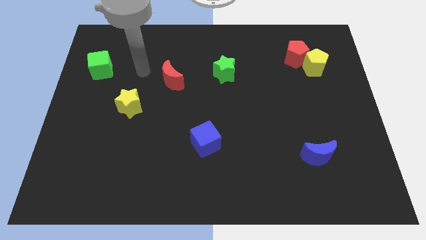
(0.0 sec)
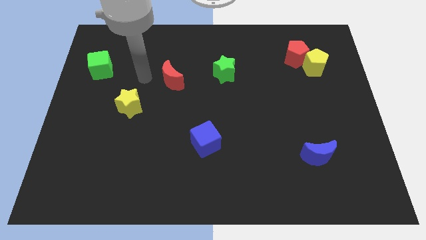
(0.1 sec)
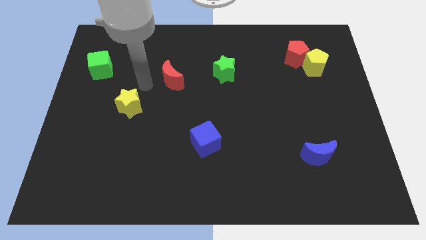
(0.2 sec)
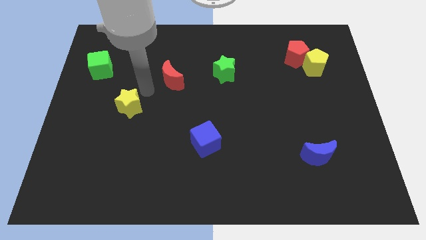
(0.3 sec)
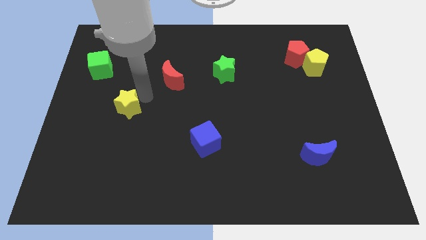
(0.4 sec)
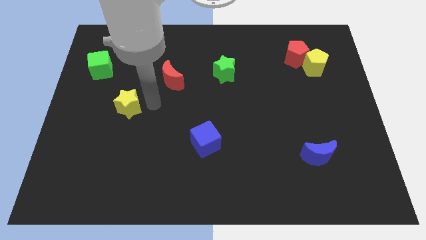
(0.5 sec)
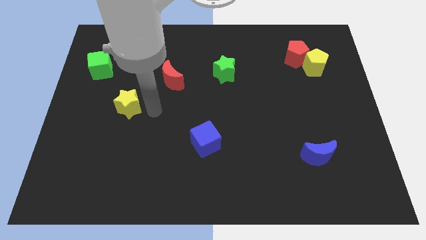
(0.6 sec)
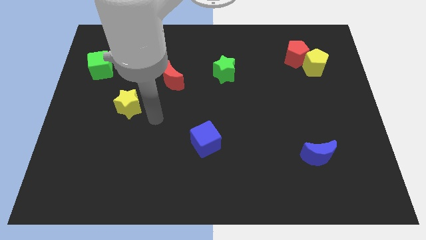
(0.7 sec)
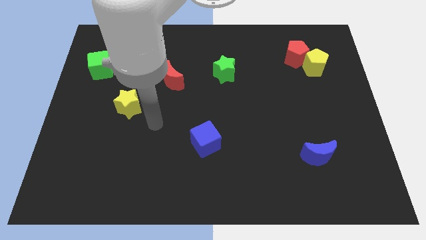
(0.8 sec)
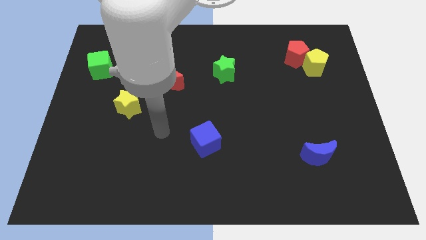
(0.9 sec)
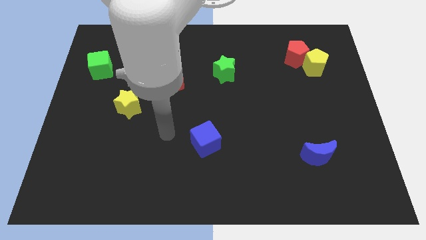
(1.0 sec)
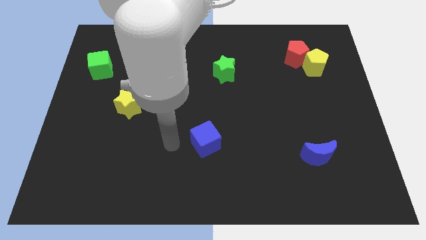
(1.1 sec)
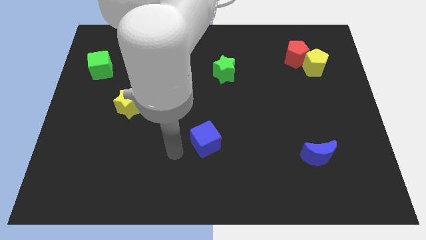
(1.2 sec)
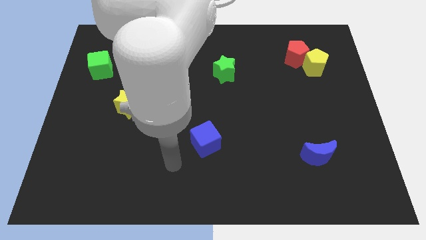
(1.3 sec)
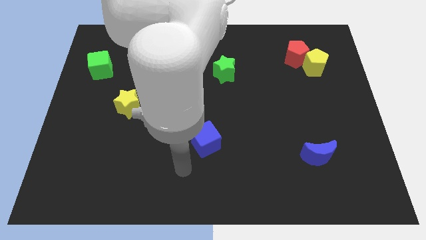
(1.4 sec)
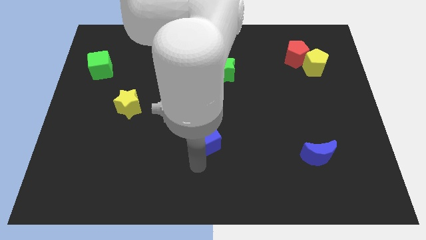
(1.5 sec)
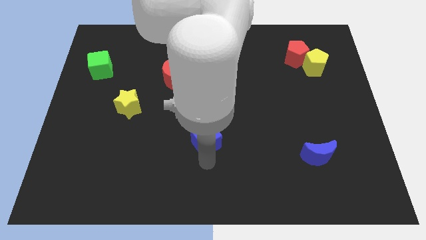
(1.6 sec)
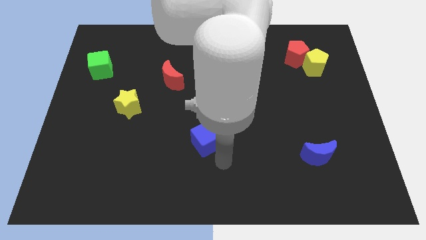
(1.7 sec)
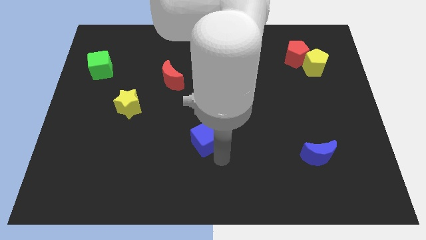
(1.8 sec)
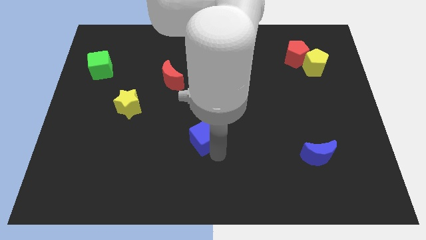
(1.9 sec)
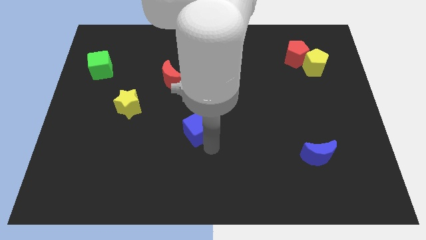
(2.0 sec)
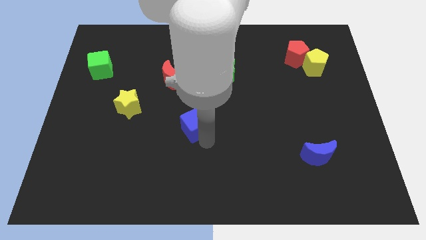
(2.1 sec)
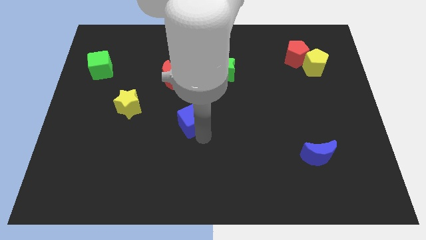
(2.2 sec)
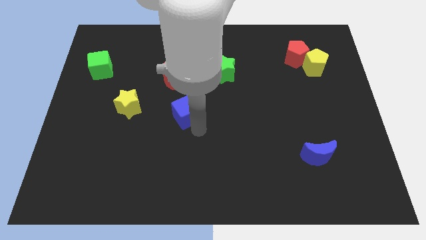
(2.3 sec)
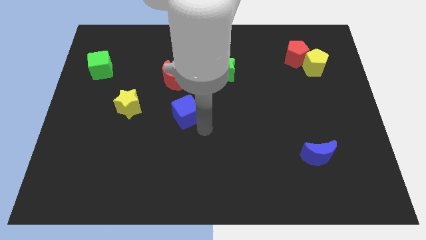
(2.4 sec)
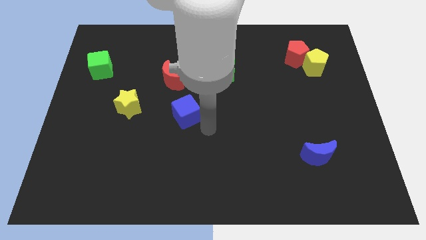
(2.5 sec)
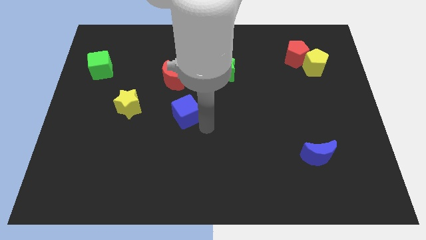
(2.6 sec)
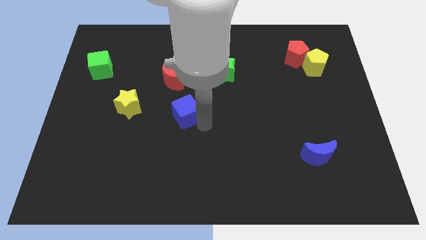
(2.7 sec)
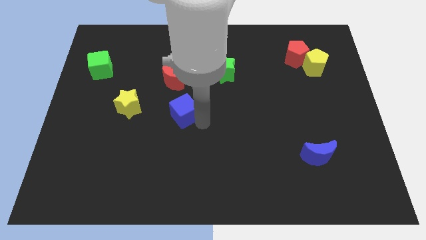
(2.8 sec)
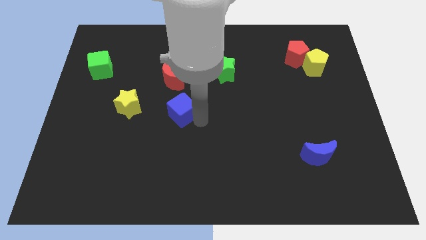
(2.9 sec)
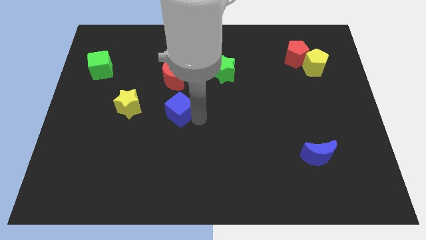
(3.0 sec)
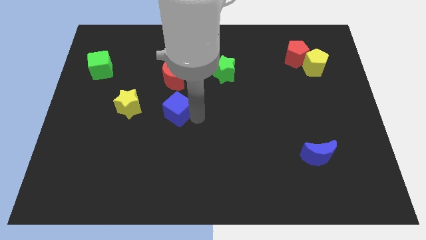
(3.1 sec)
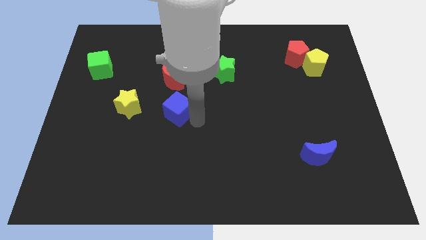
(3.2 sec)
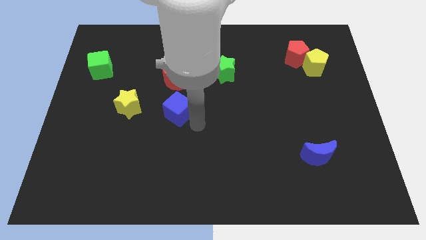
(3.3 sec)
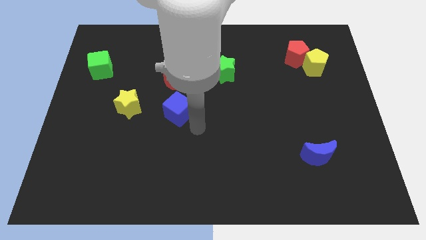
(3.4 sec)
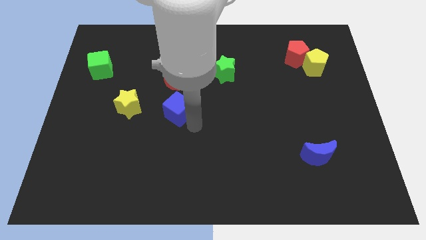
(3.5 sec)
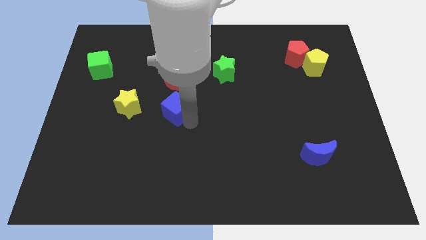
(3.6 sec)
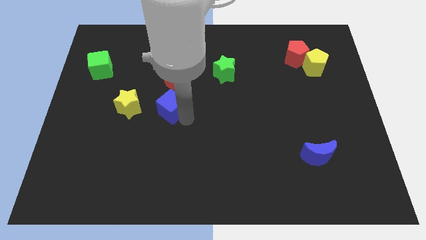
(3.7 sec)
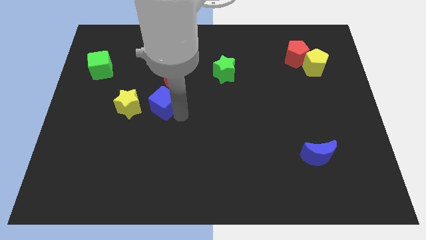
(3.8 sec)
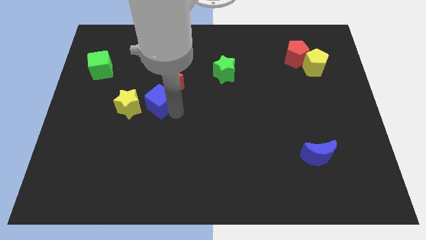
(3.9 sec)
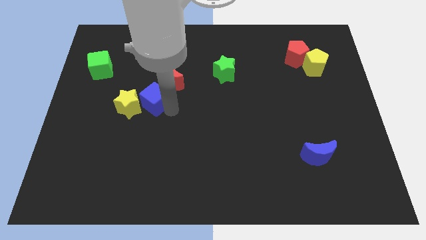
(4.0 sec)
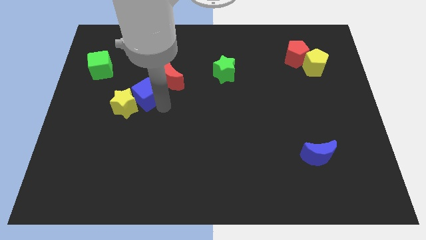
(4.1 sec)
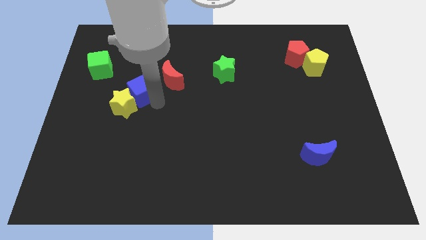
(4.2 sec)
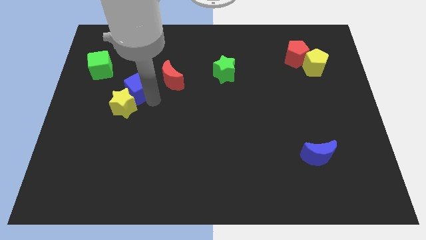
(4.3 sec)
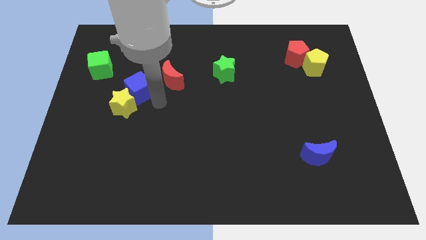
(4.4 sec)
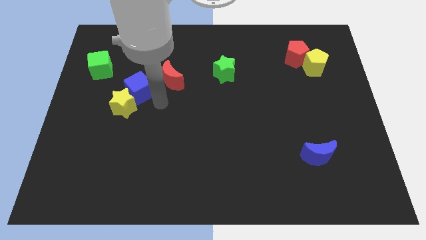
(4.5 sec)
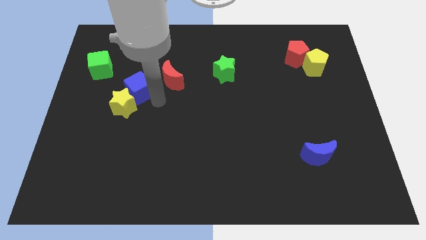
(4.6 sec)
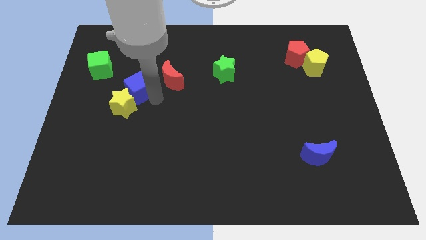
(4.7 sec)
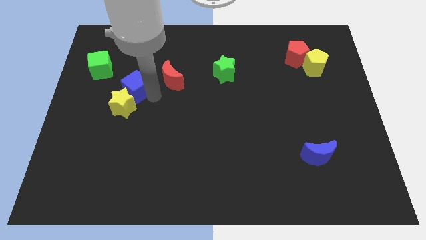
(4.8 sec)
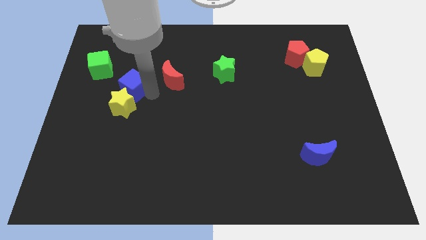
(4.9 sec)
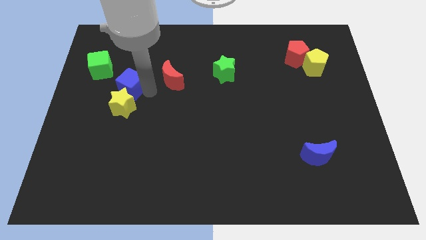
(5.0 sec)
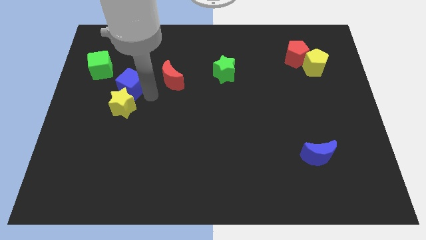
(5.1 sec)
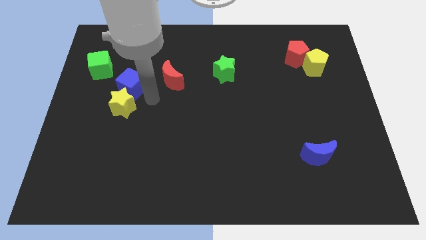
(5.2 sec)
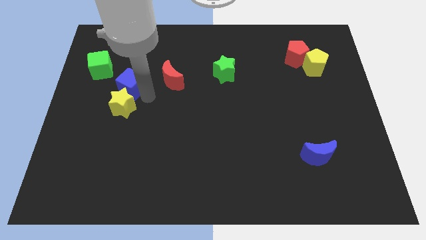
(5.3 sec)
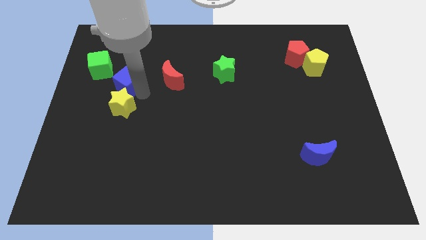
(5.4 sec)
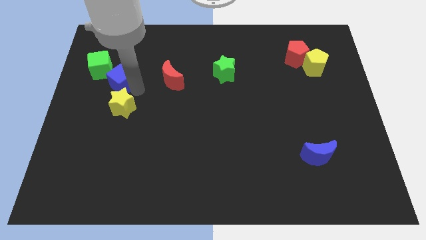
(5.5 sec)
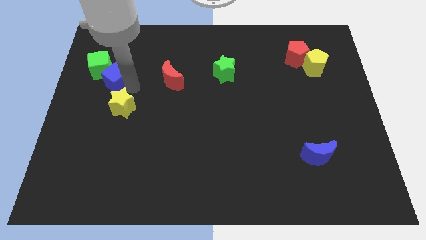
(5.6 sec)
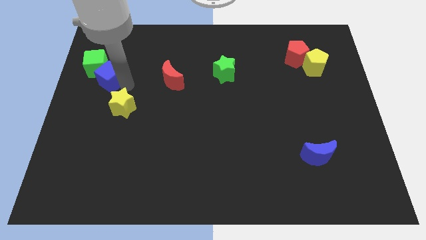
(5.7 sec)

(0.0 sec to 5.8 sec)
slide the blue cube next to the green cube

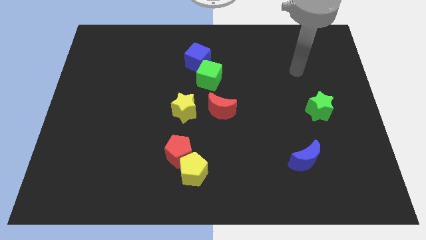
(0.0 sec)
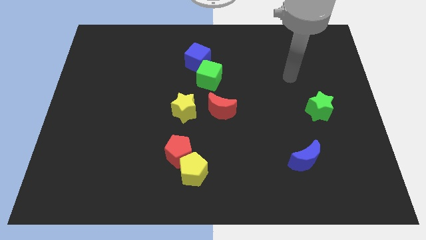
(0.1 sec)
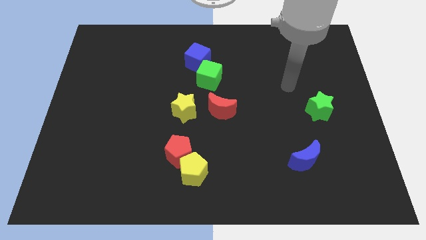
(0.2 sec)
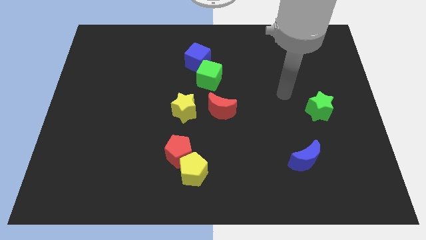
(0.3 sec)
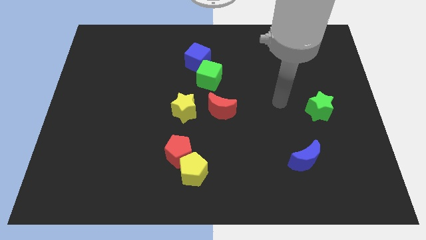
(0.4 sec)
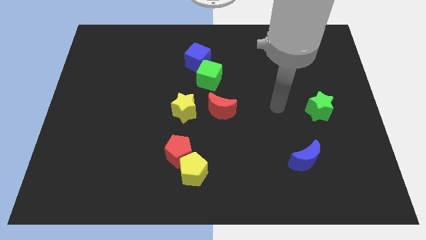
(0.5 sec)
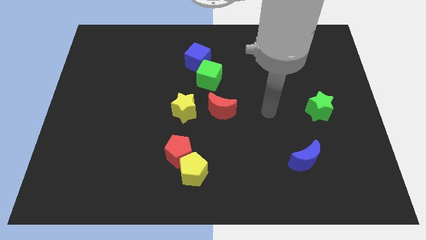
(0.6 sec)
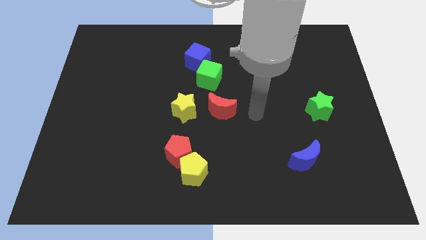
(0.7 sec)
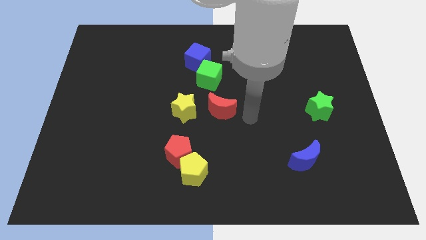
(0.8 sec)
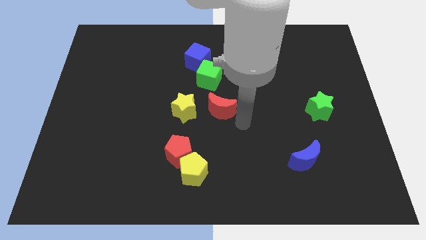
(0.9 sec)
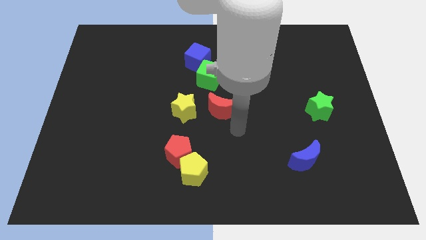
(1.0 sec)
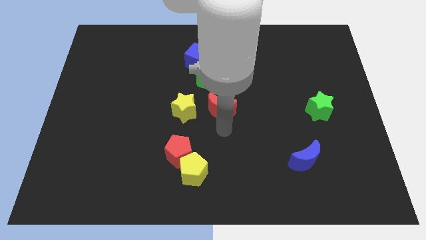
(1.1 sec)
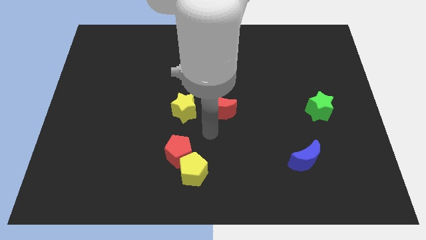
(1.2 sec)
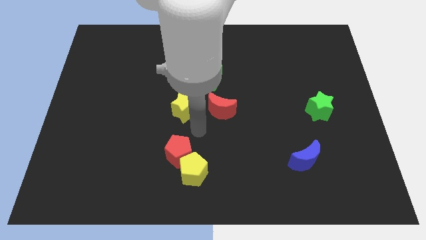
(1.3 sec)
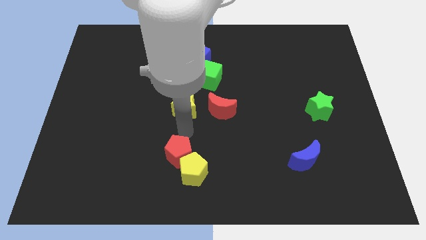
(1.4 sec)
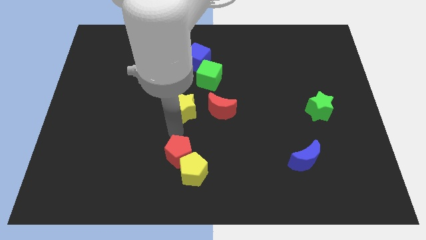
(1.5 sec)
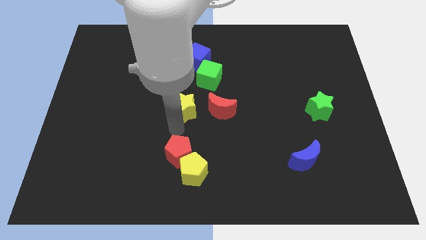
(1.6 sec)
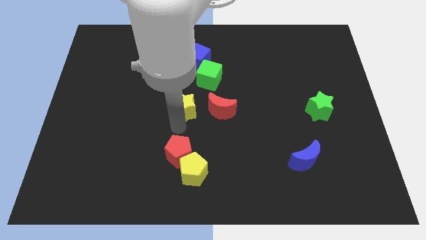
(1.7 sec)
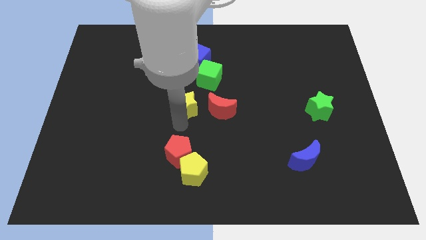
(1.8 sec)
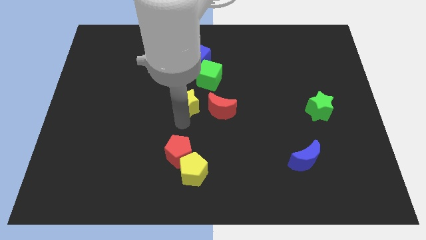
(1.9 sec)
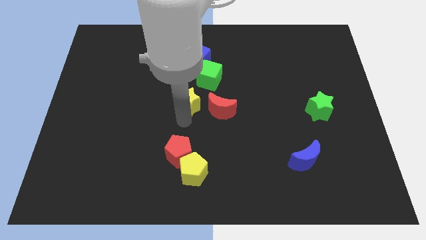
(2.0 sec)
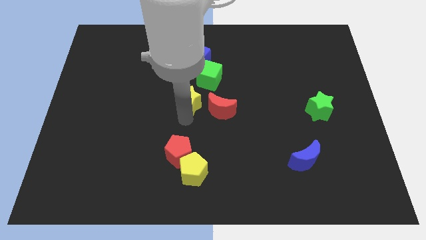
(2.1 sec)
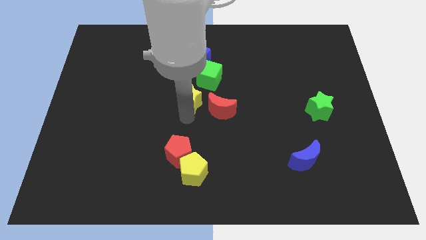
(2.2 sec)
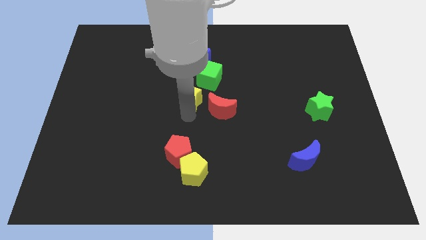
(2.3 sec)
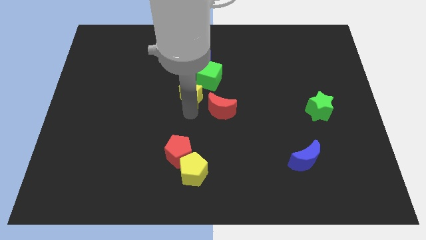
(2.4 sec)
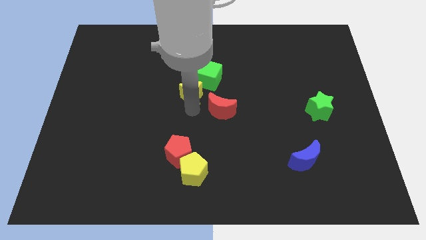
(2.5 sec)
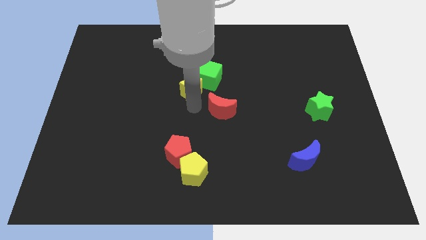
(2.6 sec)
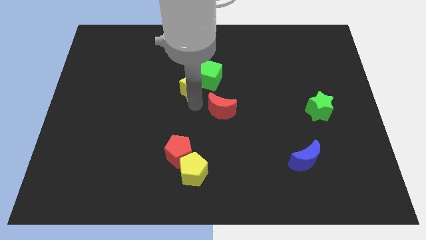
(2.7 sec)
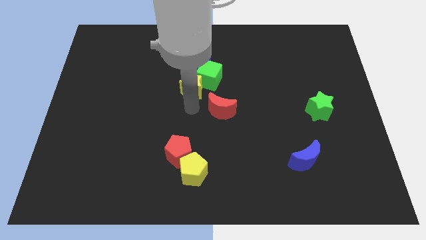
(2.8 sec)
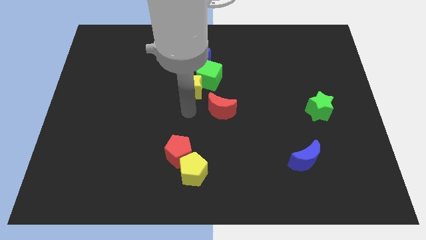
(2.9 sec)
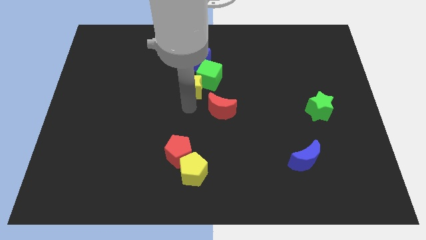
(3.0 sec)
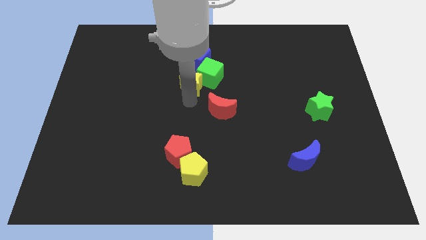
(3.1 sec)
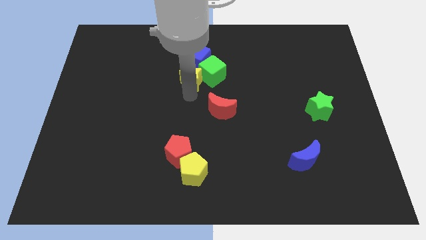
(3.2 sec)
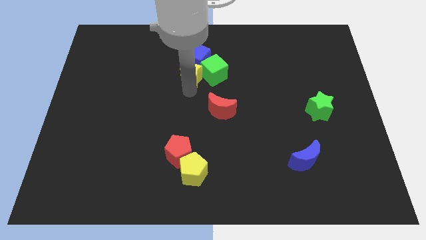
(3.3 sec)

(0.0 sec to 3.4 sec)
slide the yellow star towards the blue cube
